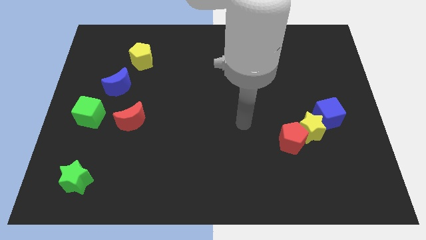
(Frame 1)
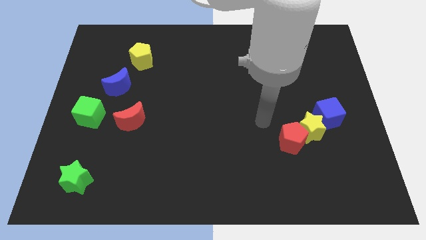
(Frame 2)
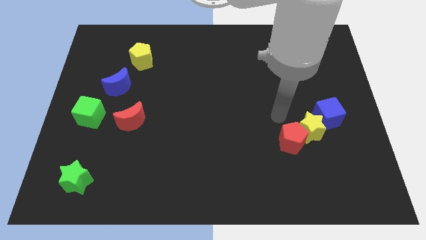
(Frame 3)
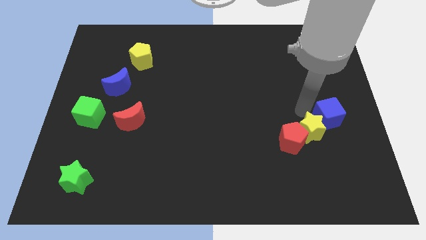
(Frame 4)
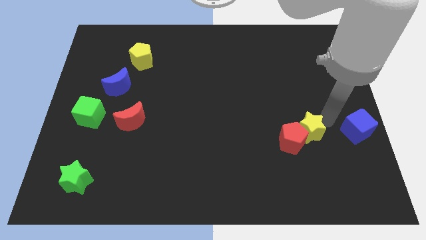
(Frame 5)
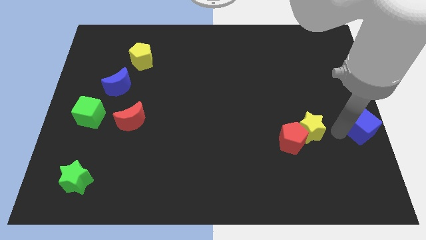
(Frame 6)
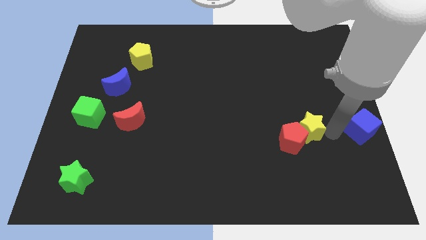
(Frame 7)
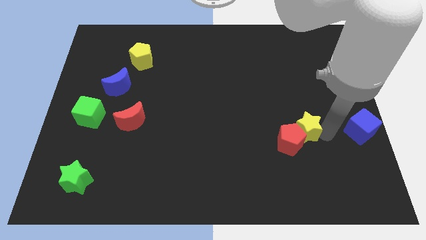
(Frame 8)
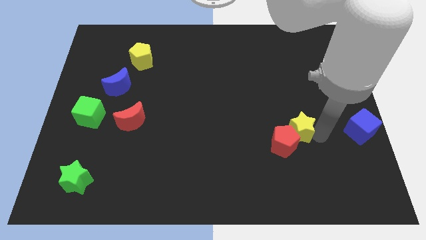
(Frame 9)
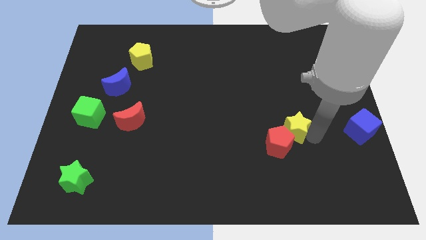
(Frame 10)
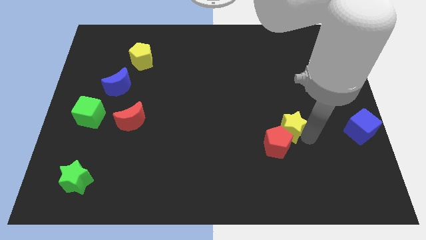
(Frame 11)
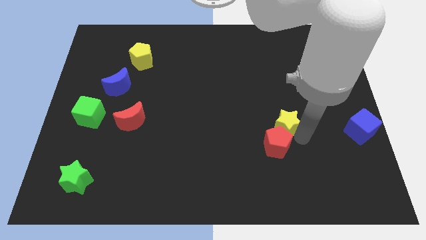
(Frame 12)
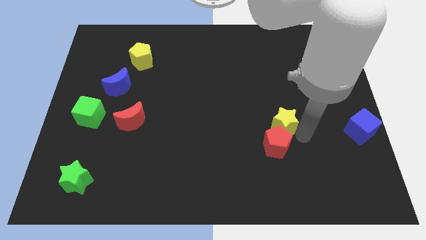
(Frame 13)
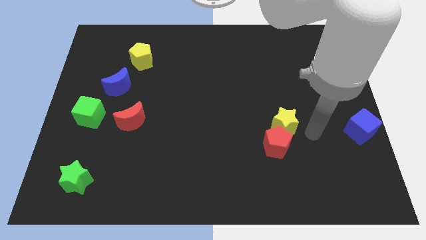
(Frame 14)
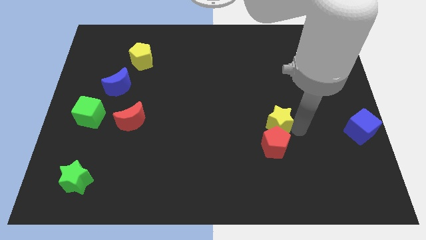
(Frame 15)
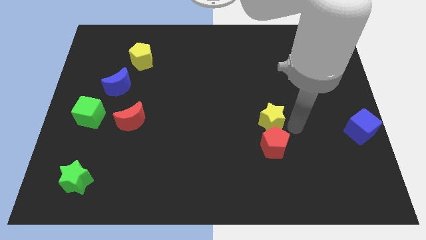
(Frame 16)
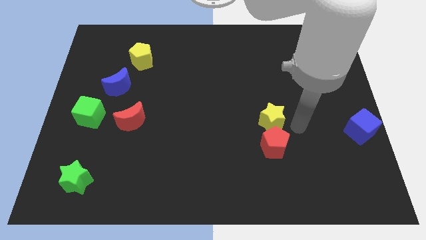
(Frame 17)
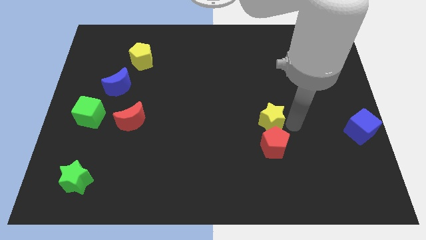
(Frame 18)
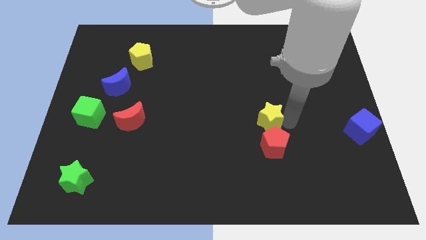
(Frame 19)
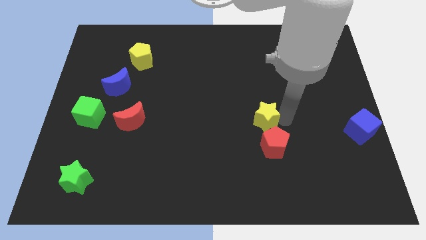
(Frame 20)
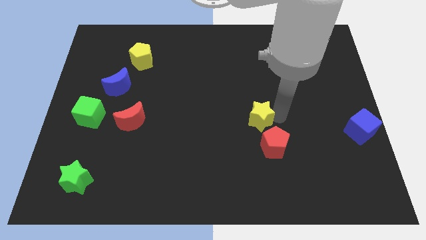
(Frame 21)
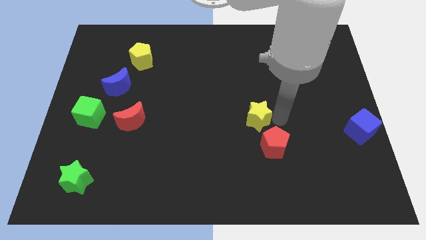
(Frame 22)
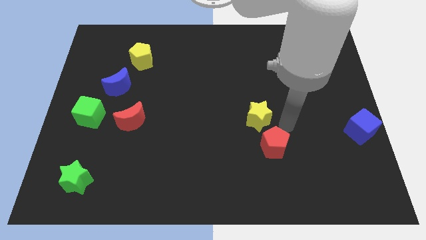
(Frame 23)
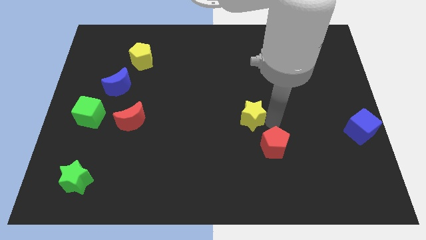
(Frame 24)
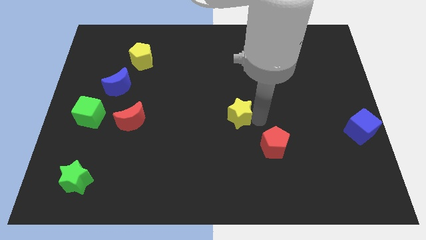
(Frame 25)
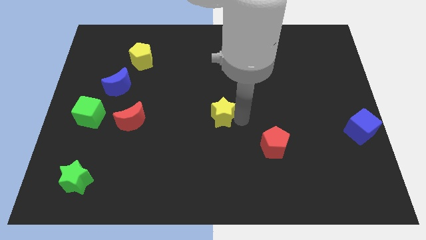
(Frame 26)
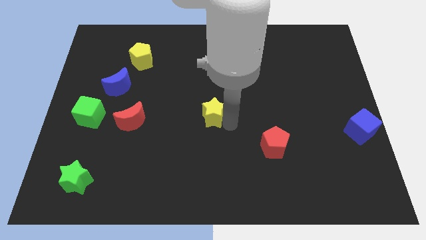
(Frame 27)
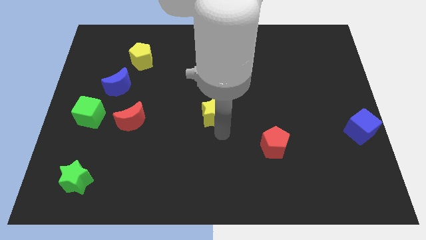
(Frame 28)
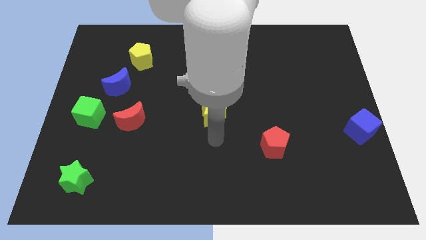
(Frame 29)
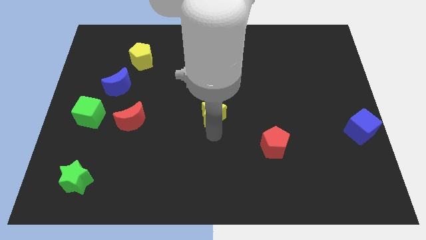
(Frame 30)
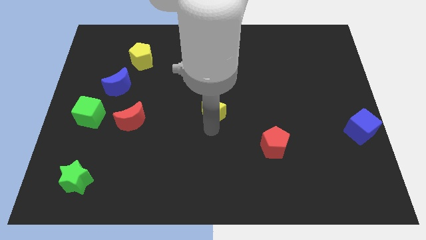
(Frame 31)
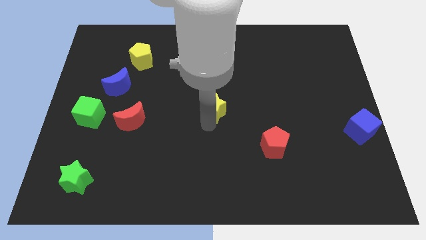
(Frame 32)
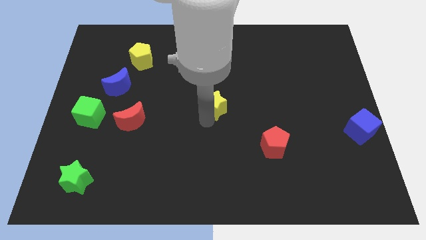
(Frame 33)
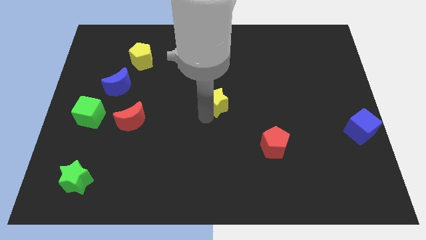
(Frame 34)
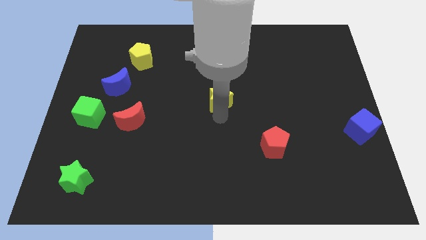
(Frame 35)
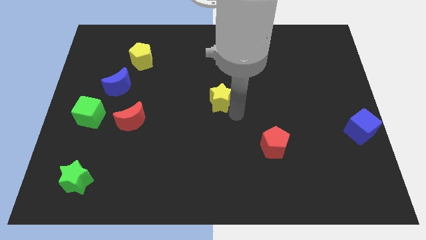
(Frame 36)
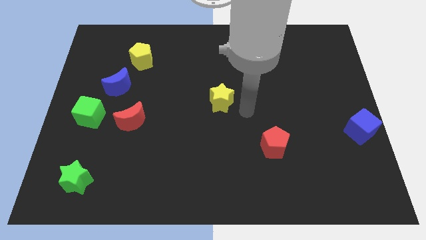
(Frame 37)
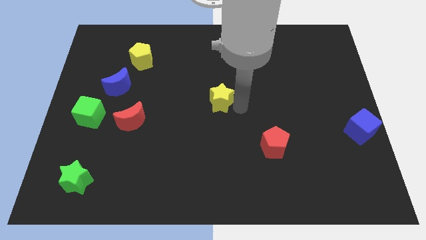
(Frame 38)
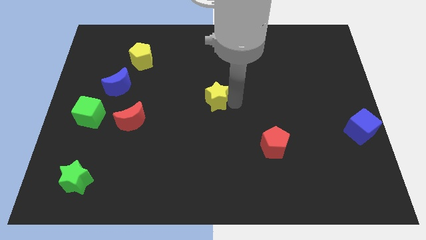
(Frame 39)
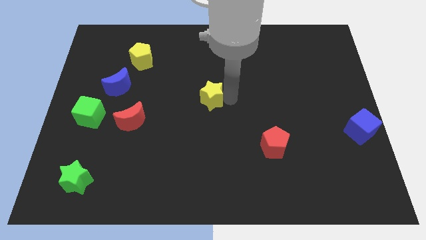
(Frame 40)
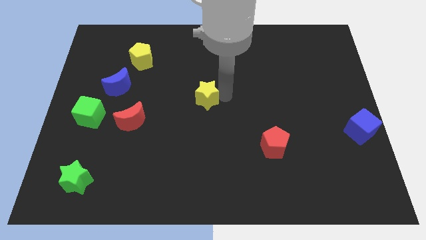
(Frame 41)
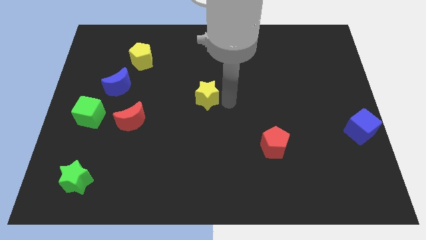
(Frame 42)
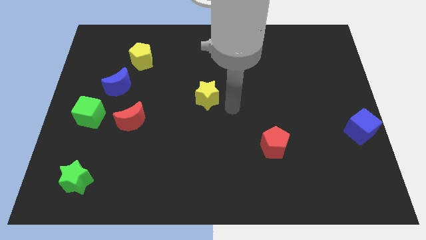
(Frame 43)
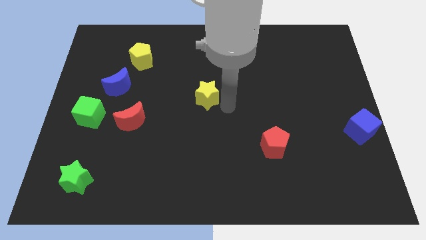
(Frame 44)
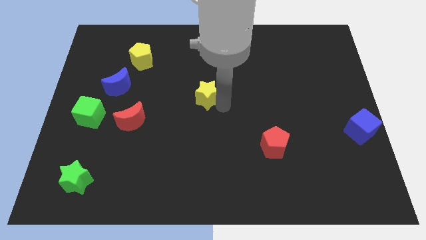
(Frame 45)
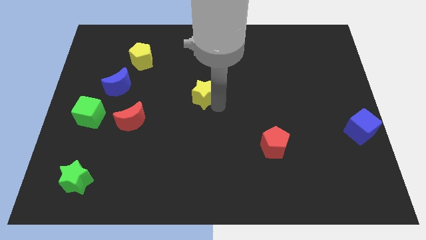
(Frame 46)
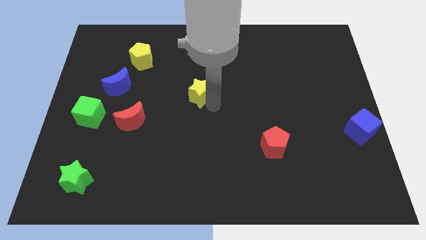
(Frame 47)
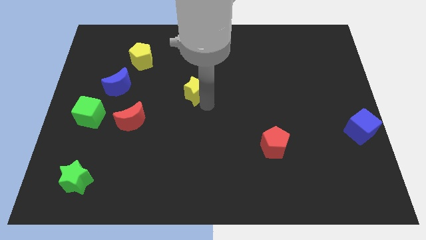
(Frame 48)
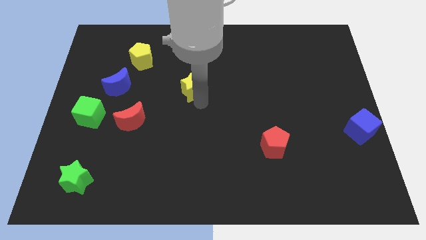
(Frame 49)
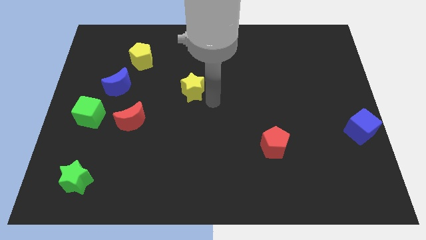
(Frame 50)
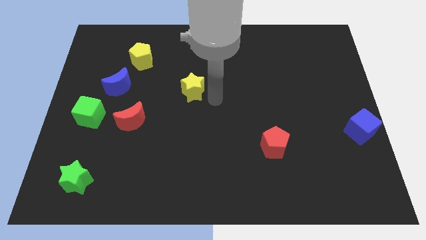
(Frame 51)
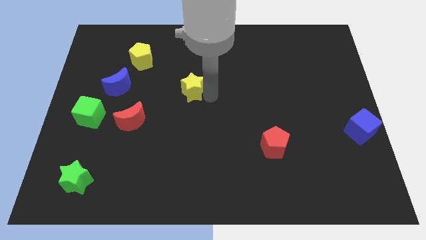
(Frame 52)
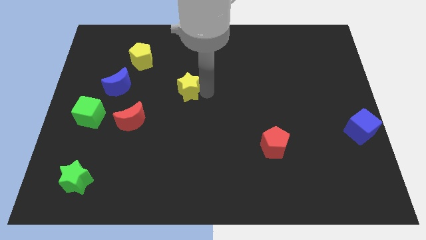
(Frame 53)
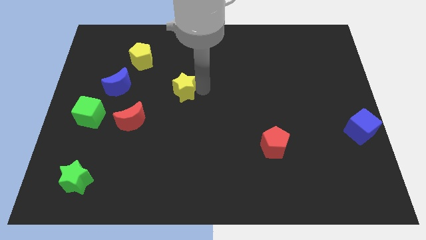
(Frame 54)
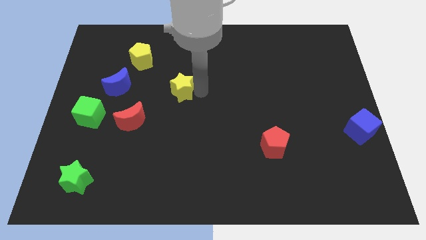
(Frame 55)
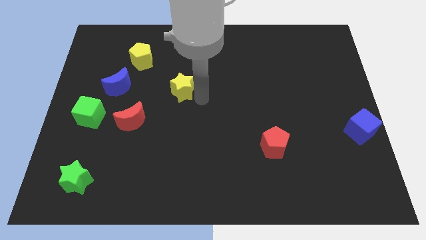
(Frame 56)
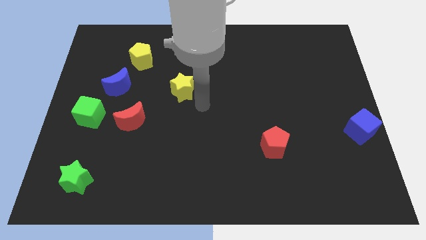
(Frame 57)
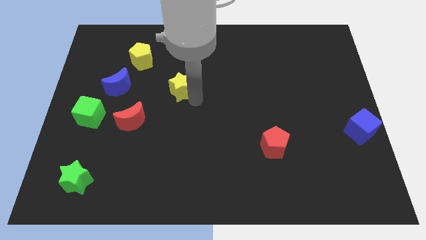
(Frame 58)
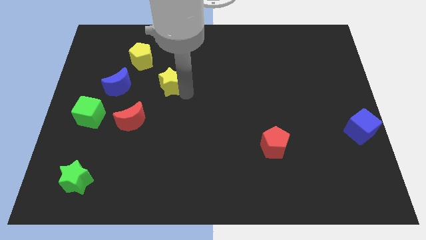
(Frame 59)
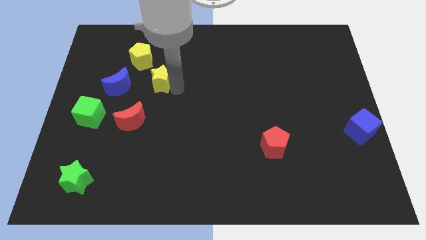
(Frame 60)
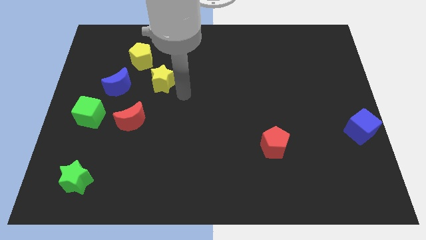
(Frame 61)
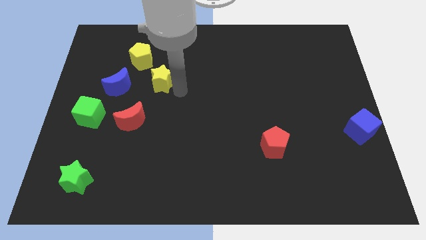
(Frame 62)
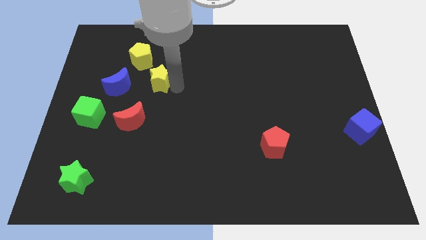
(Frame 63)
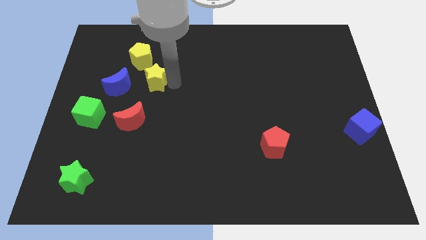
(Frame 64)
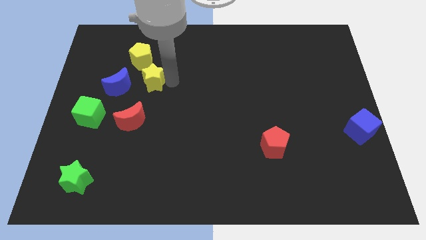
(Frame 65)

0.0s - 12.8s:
move the yellow star diagonally up and to the right of the blue moon
